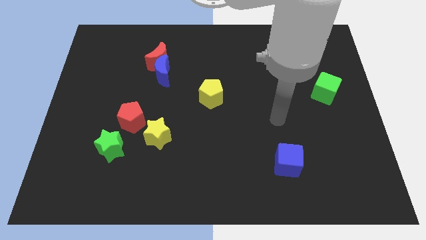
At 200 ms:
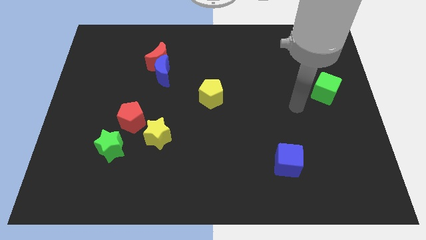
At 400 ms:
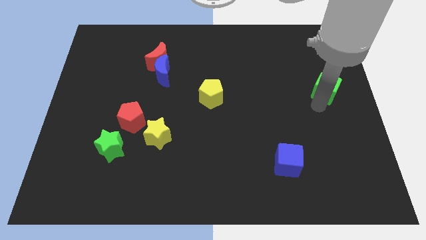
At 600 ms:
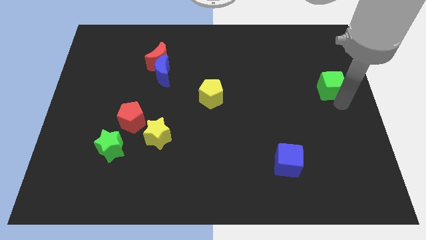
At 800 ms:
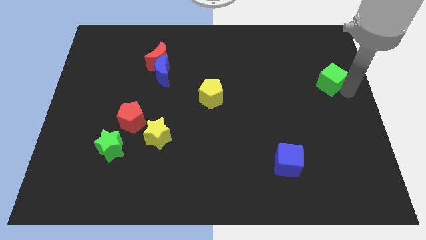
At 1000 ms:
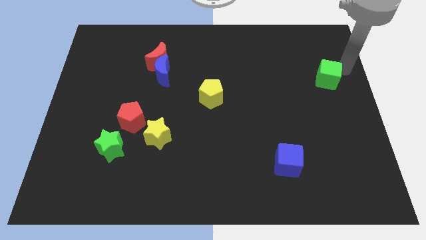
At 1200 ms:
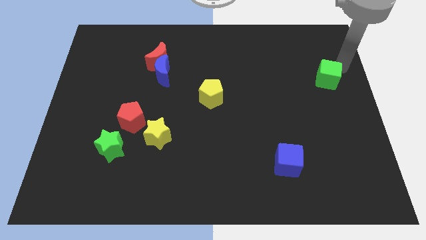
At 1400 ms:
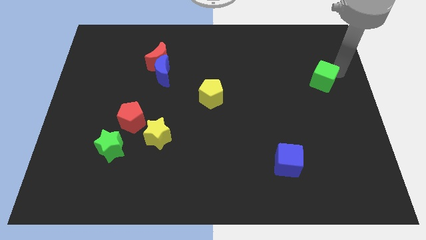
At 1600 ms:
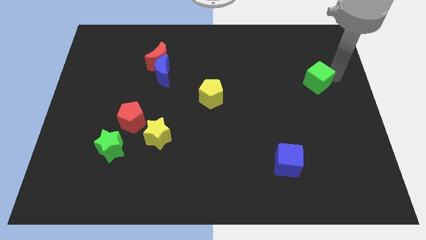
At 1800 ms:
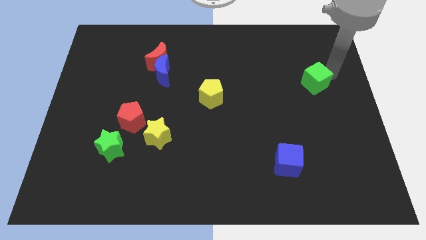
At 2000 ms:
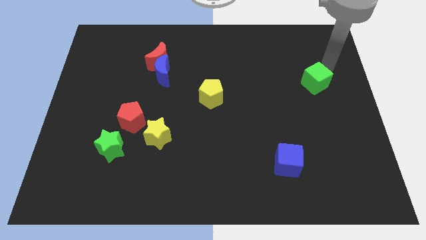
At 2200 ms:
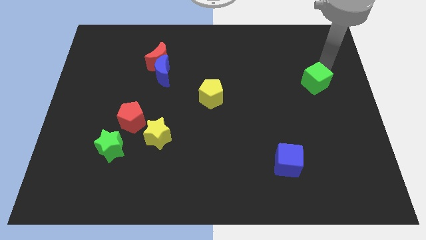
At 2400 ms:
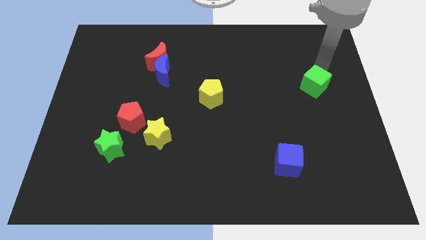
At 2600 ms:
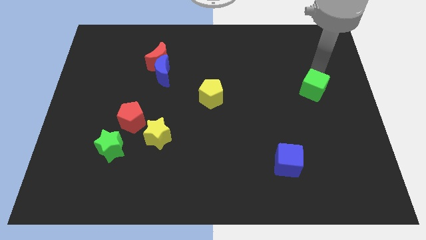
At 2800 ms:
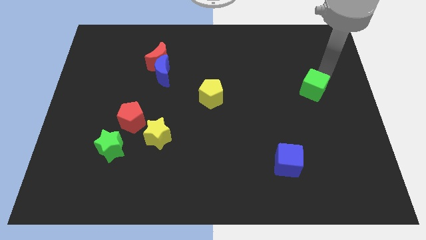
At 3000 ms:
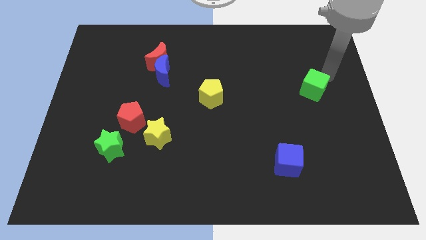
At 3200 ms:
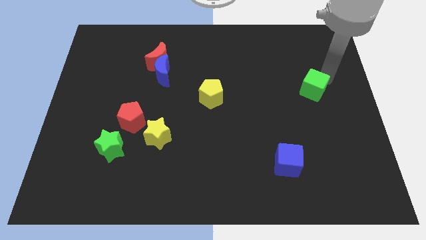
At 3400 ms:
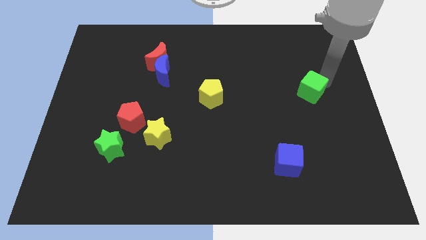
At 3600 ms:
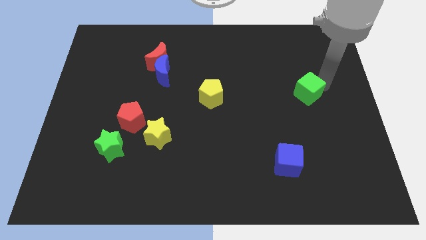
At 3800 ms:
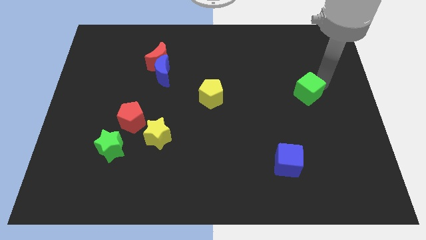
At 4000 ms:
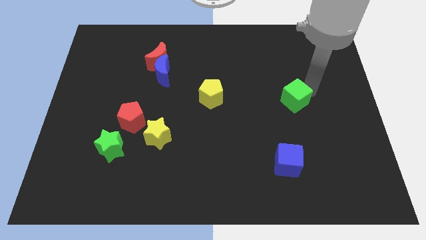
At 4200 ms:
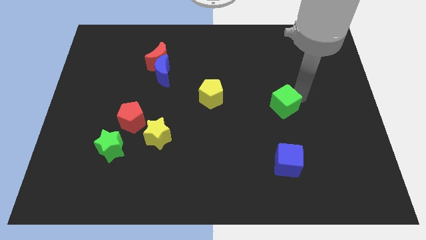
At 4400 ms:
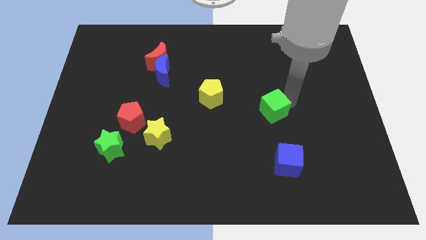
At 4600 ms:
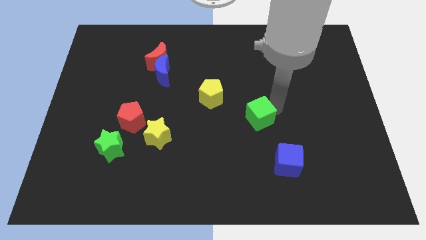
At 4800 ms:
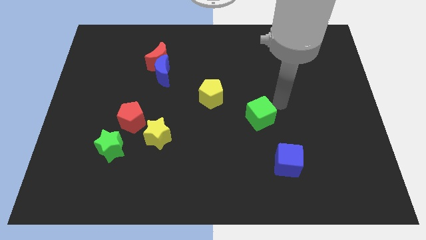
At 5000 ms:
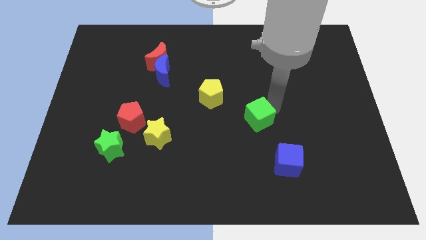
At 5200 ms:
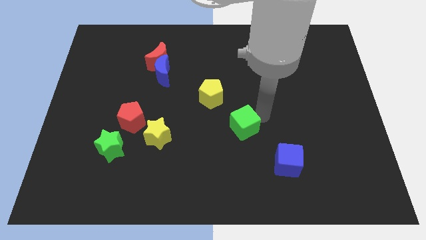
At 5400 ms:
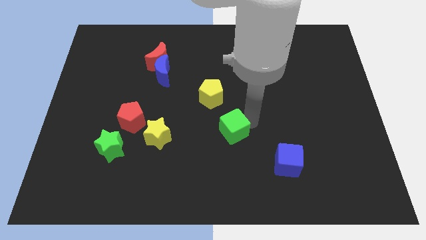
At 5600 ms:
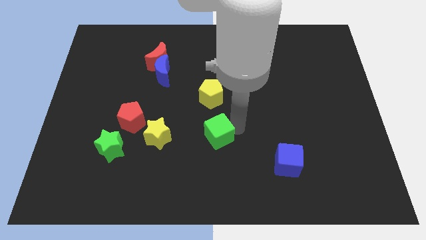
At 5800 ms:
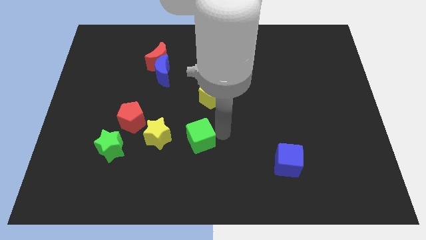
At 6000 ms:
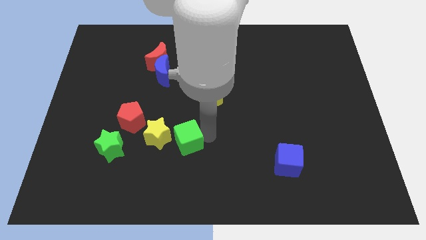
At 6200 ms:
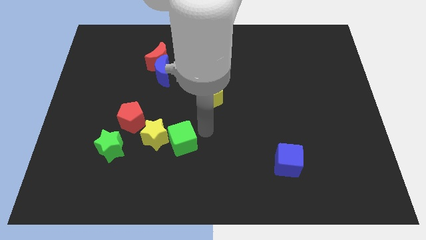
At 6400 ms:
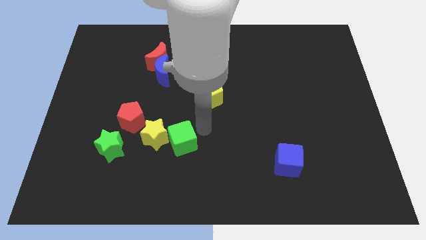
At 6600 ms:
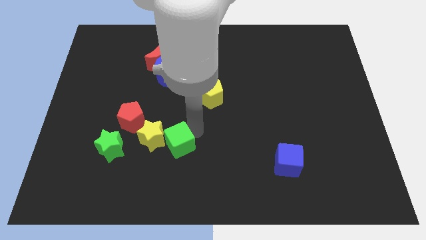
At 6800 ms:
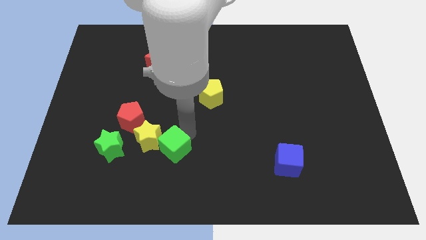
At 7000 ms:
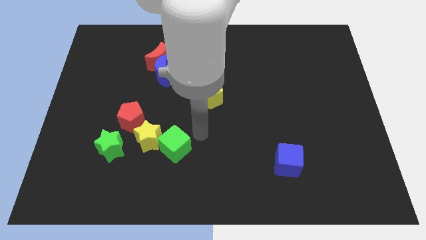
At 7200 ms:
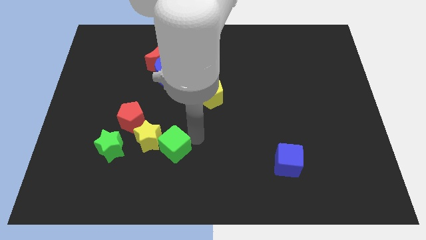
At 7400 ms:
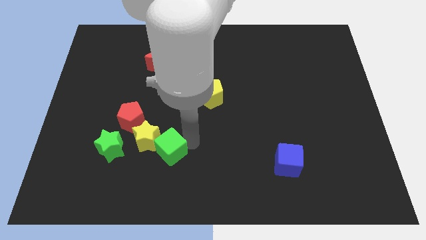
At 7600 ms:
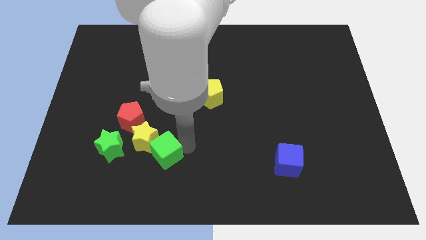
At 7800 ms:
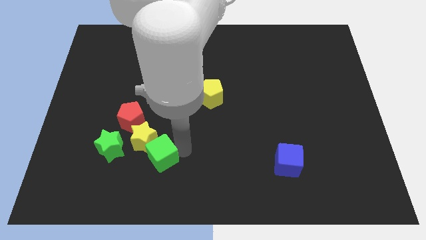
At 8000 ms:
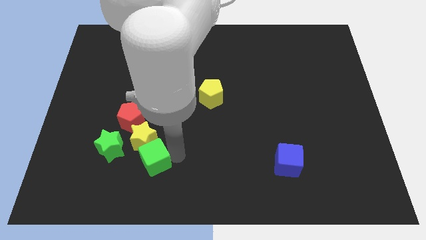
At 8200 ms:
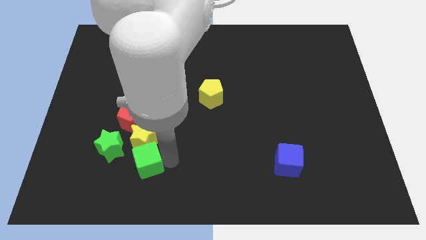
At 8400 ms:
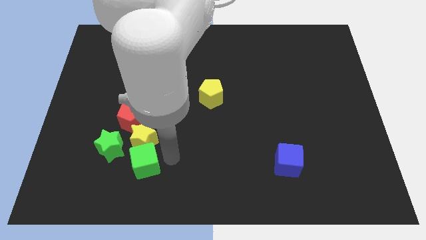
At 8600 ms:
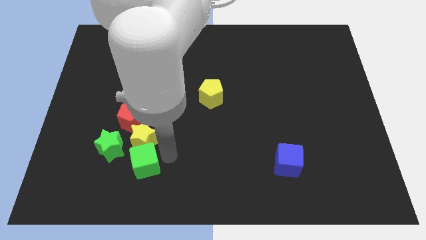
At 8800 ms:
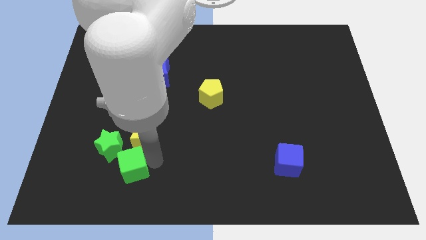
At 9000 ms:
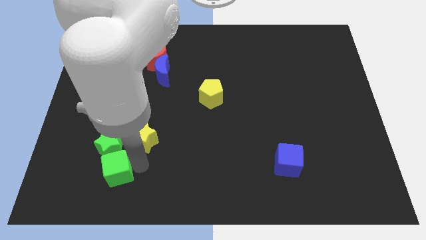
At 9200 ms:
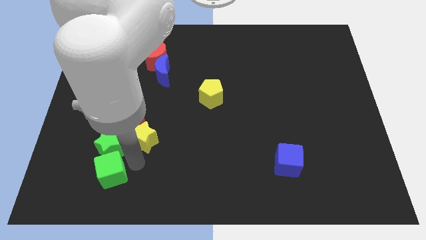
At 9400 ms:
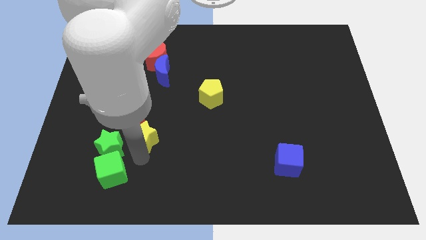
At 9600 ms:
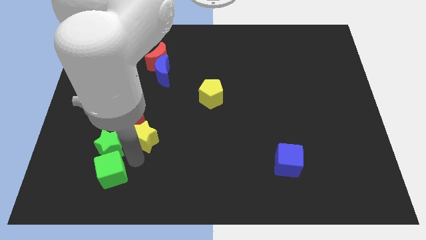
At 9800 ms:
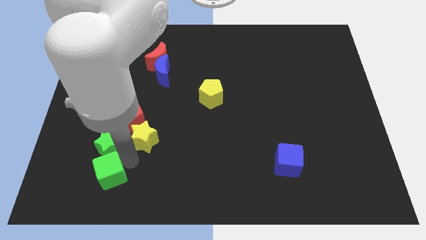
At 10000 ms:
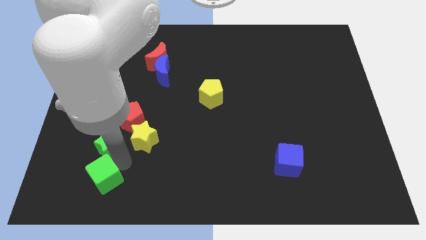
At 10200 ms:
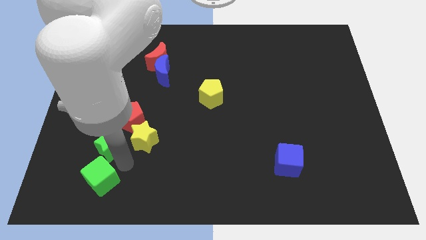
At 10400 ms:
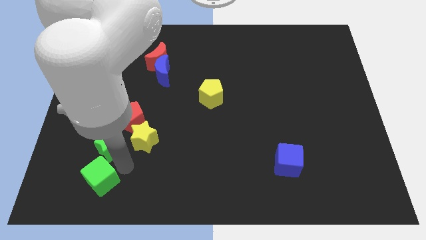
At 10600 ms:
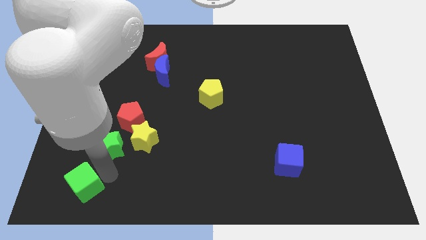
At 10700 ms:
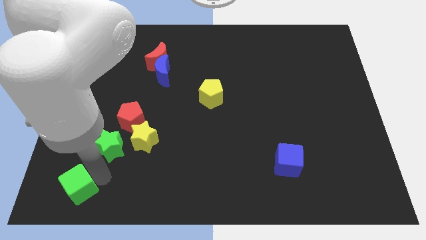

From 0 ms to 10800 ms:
put the green cube to the bottom left of the board

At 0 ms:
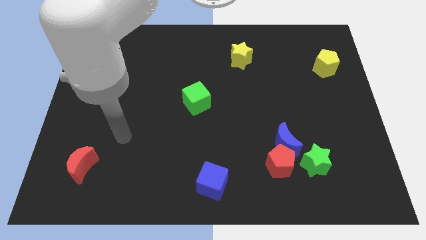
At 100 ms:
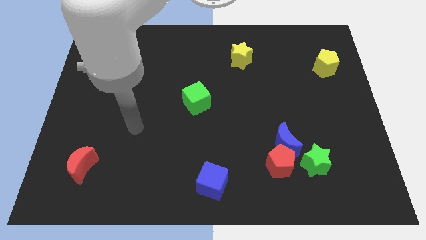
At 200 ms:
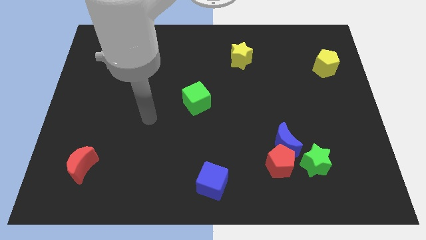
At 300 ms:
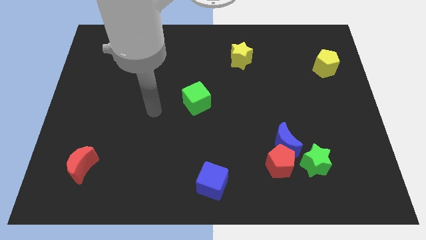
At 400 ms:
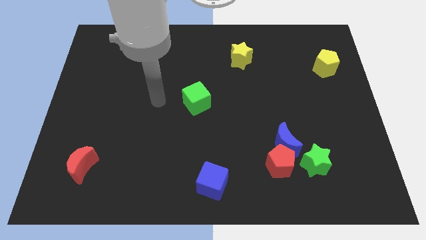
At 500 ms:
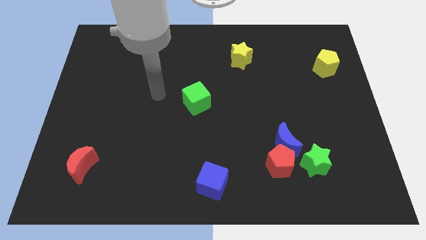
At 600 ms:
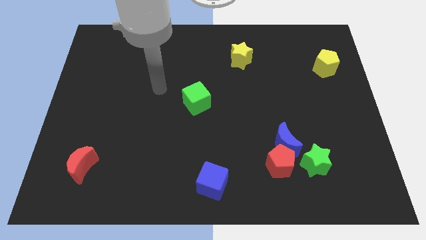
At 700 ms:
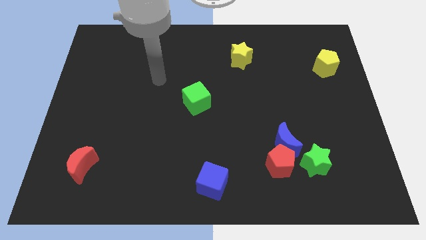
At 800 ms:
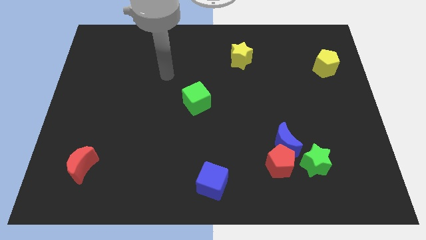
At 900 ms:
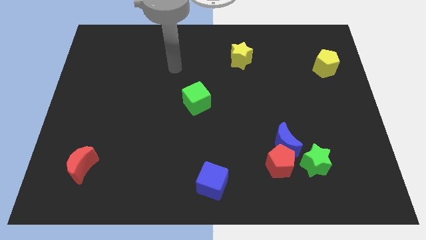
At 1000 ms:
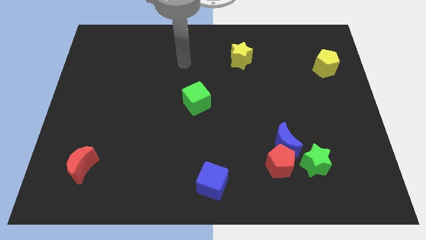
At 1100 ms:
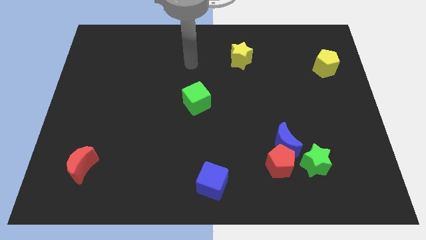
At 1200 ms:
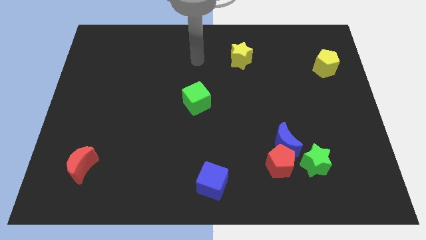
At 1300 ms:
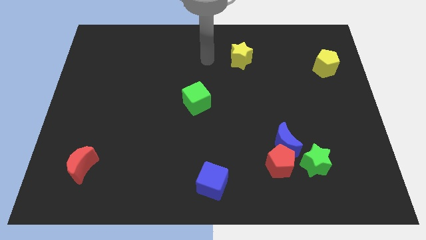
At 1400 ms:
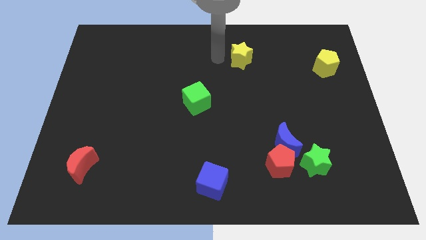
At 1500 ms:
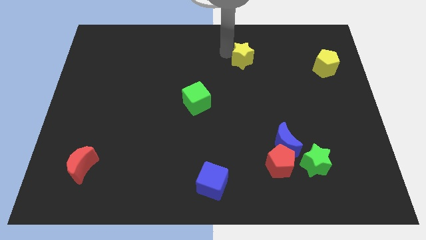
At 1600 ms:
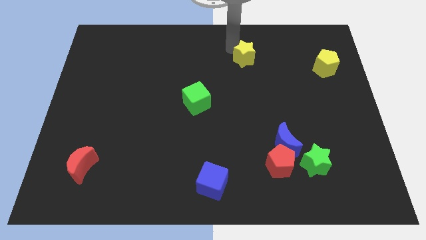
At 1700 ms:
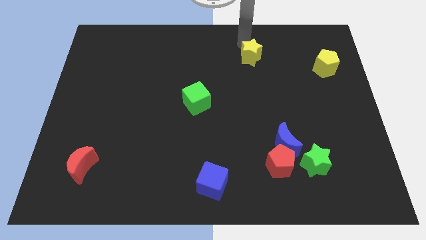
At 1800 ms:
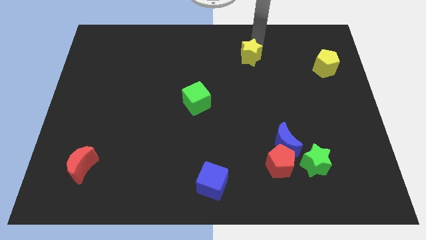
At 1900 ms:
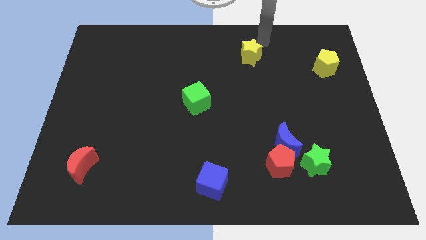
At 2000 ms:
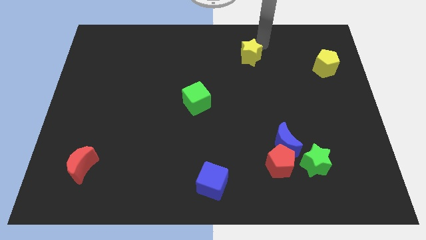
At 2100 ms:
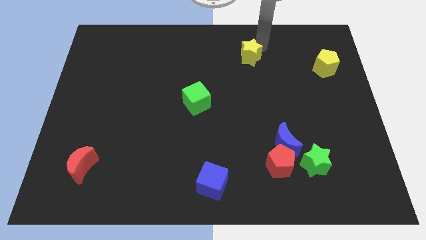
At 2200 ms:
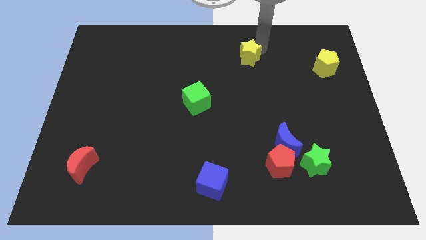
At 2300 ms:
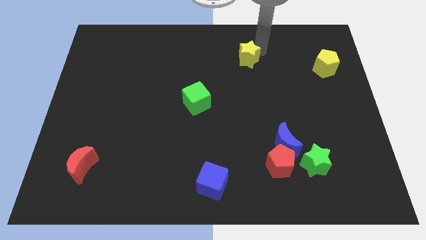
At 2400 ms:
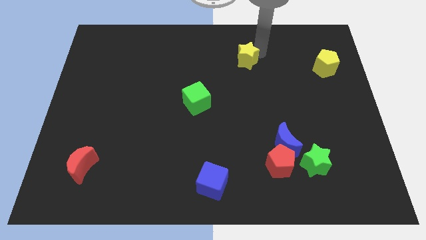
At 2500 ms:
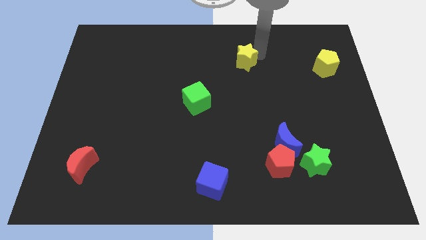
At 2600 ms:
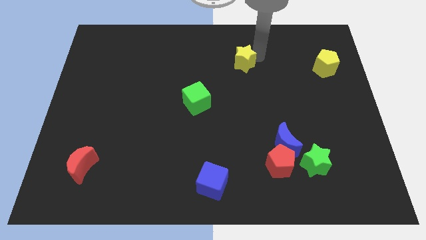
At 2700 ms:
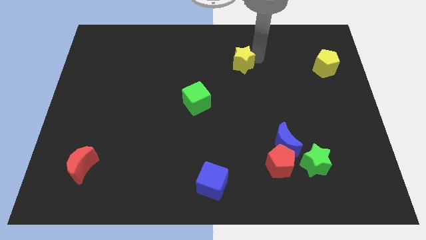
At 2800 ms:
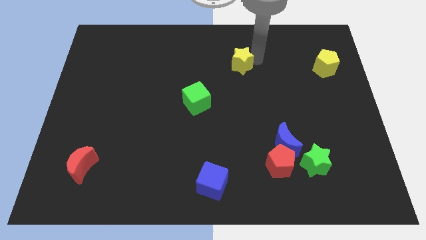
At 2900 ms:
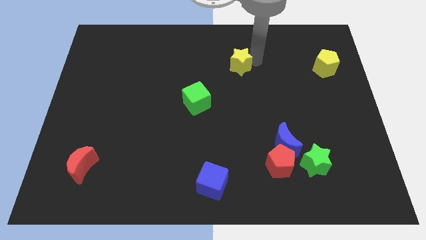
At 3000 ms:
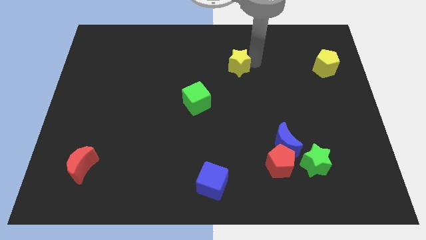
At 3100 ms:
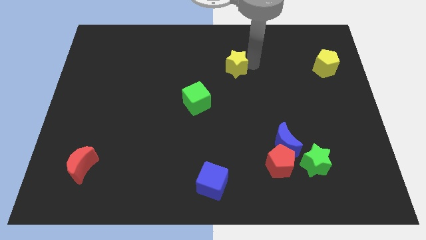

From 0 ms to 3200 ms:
move the yellow star to the middle of the board
